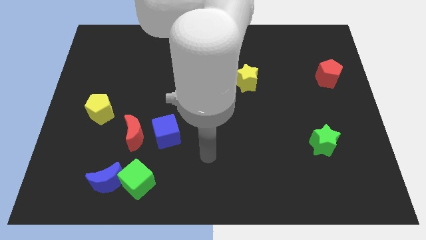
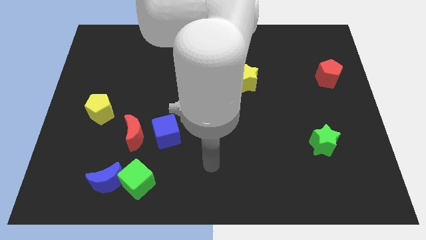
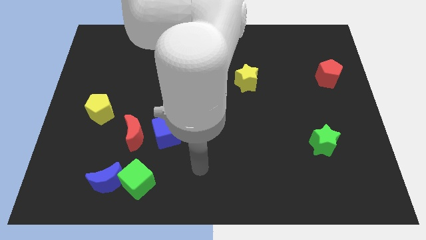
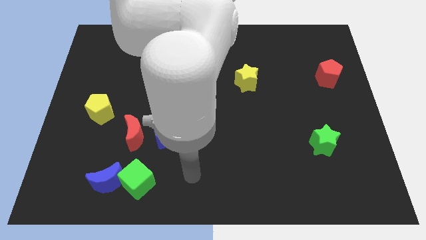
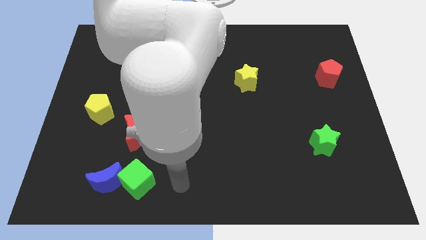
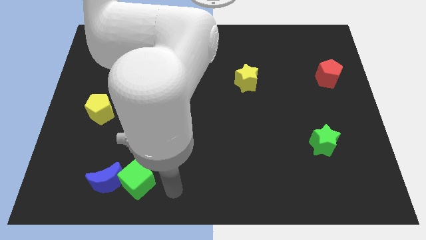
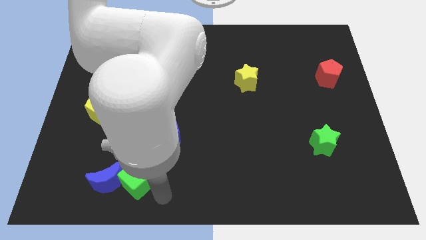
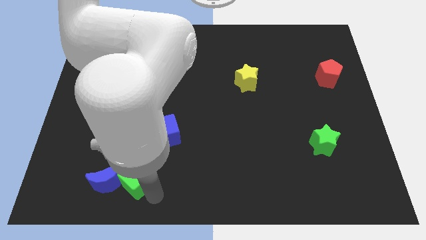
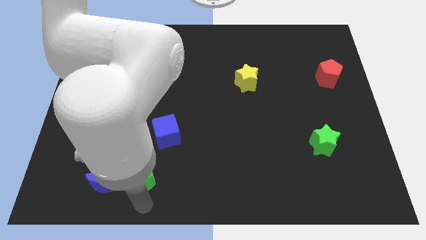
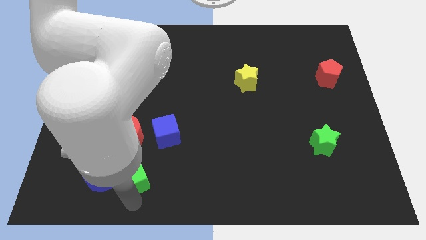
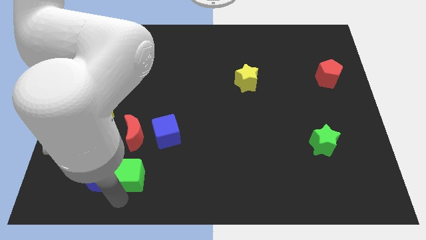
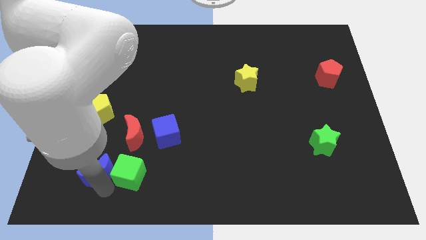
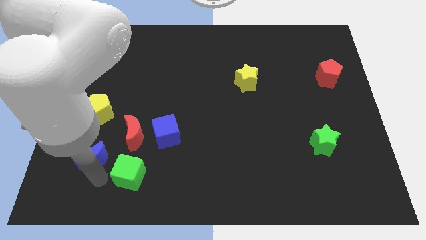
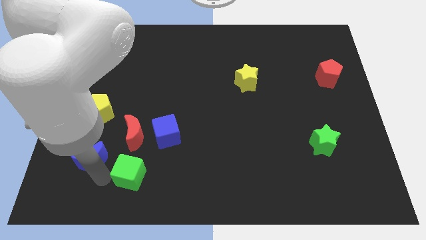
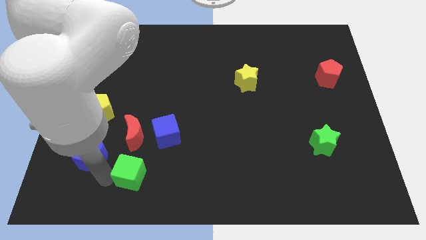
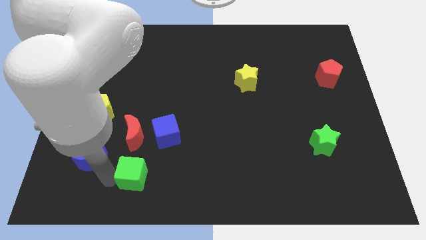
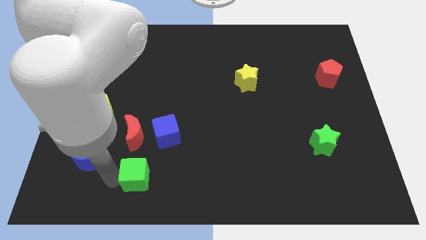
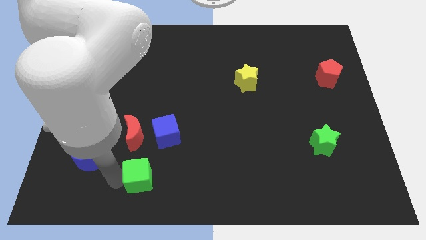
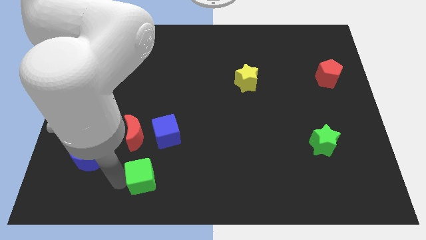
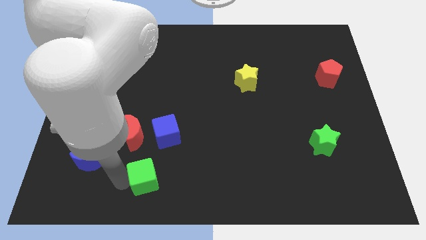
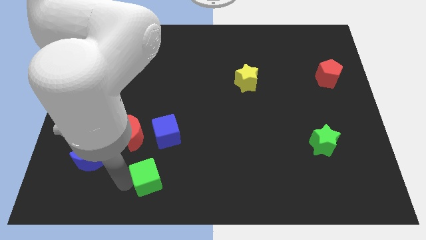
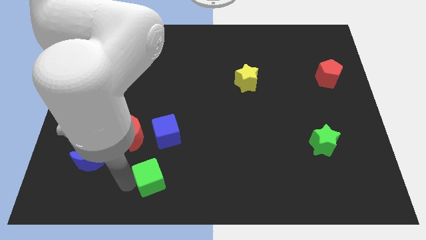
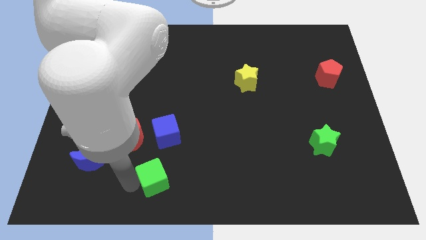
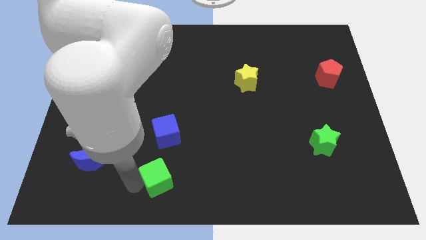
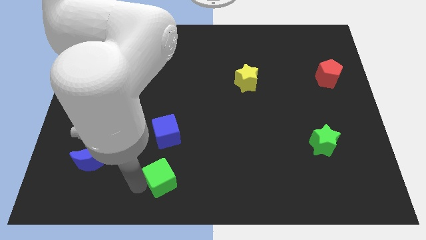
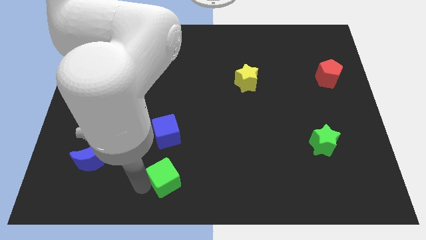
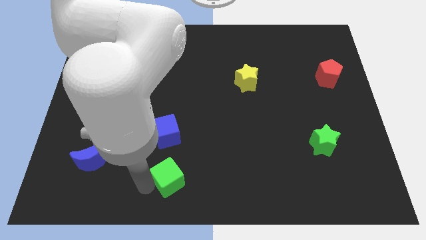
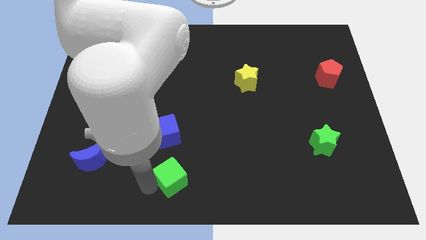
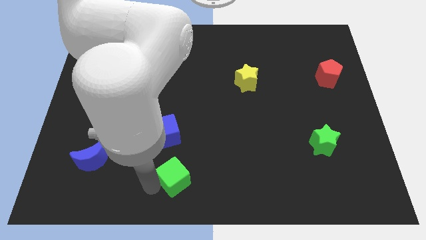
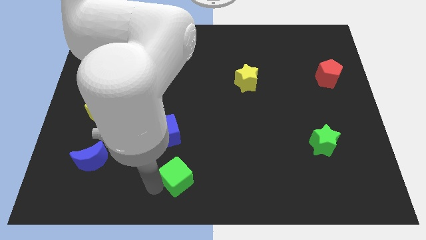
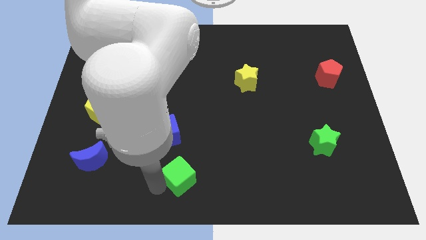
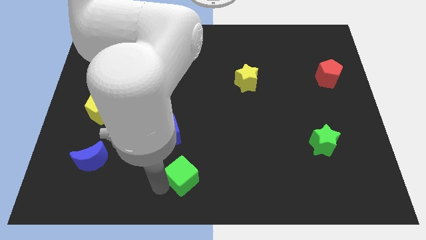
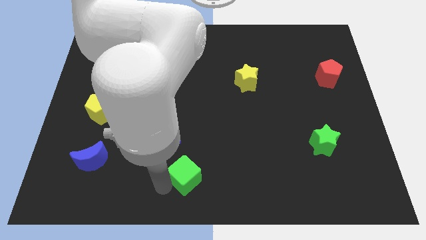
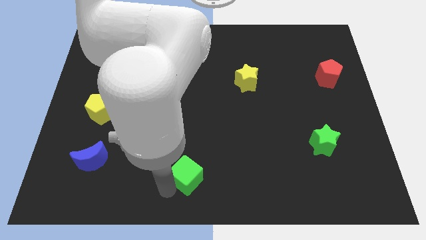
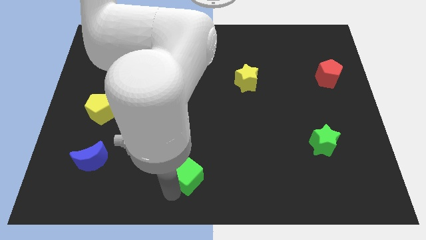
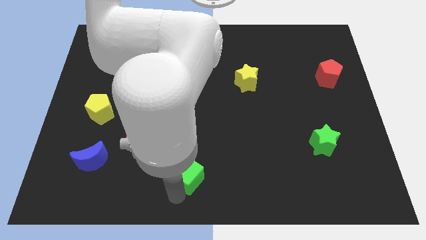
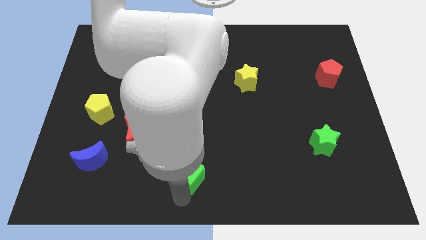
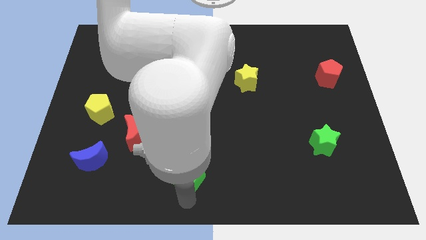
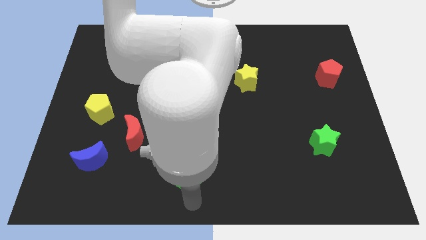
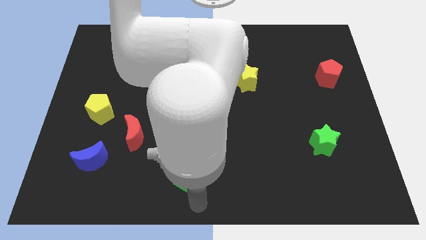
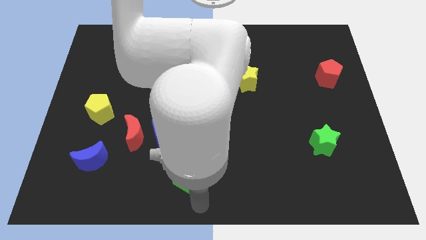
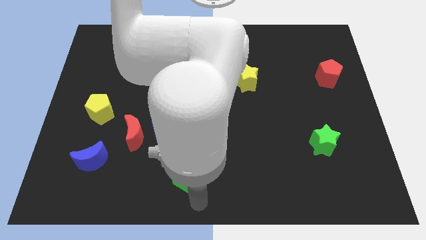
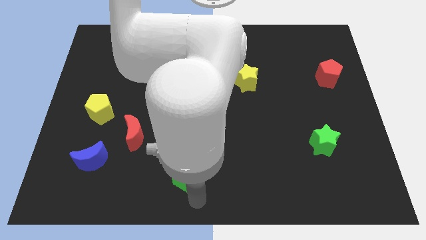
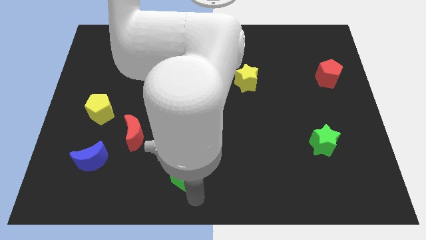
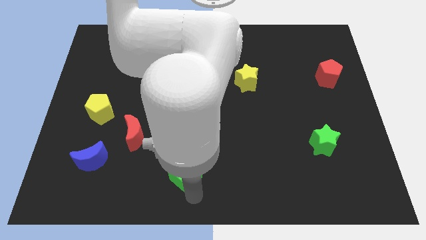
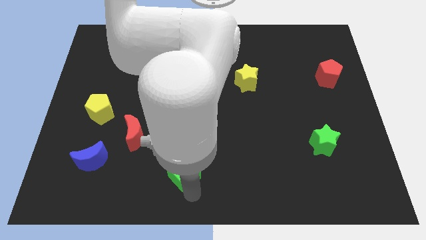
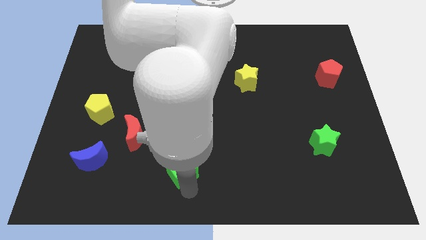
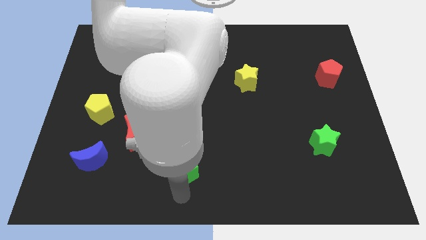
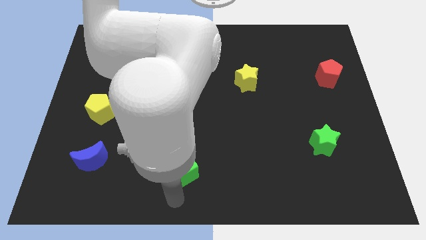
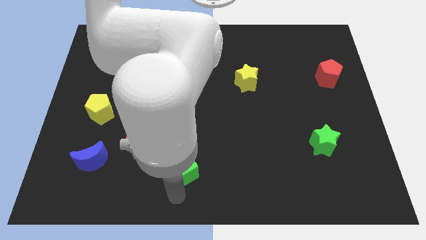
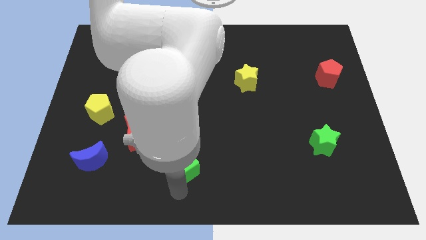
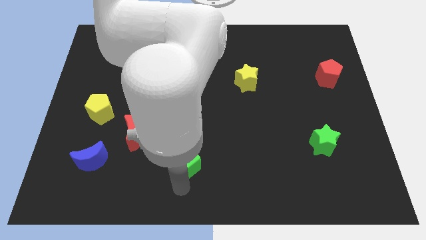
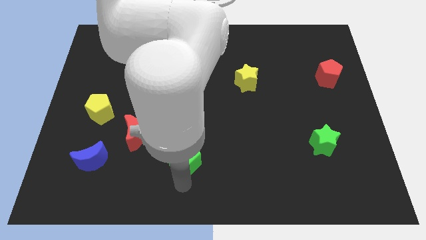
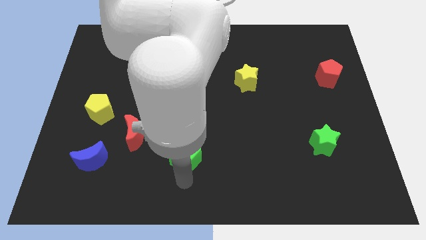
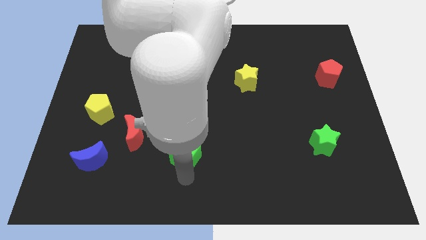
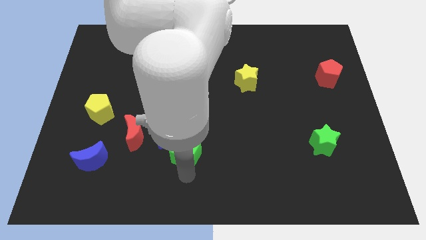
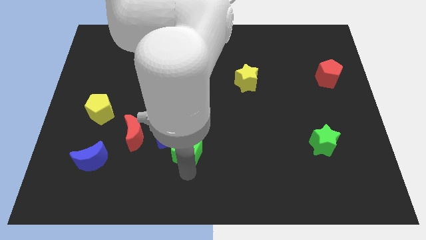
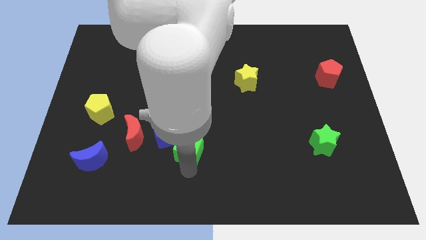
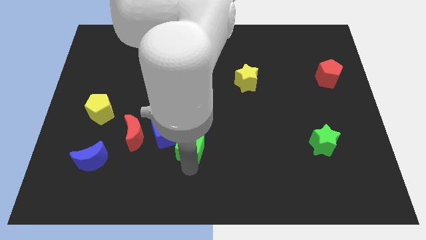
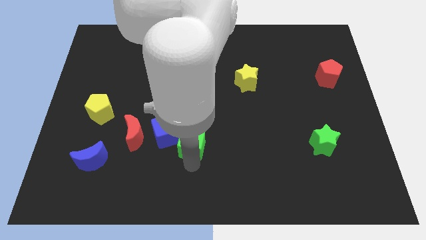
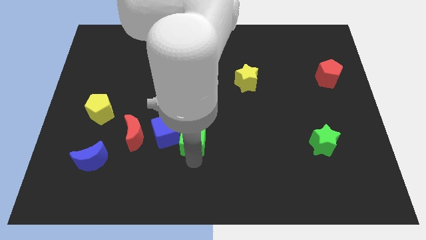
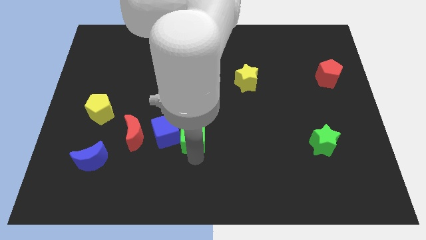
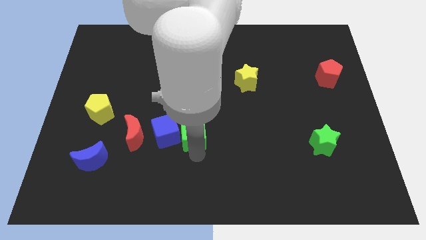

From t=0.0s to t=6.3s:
slide the green cube to the top right of the blue cube
